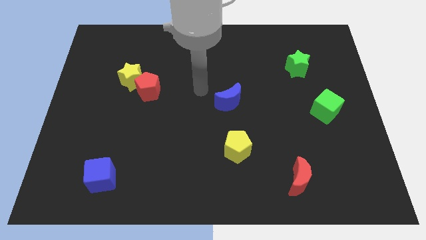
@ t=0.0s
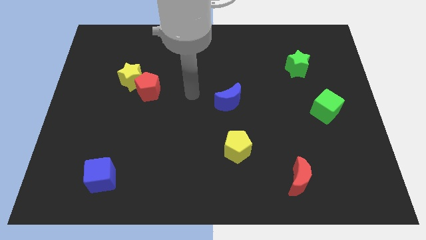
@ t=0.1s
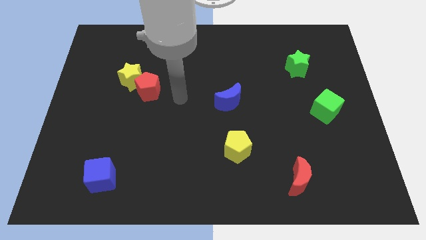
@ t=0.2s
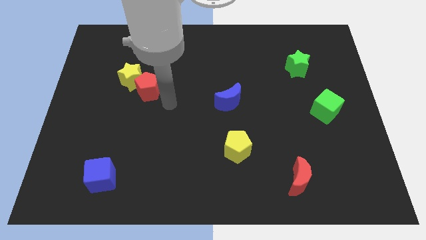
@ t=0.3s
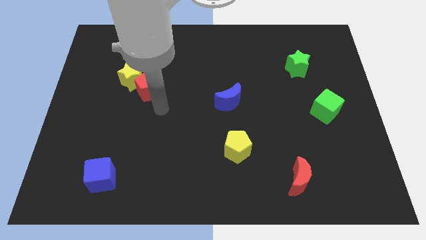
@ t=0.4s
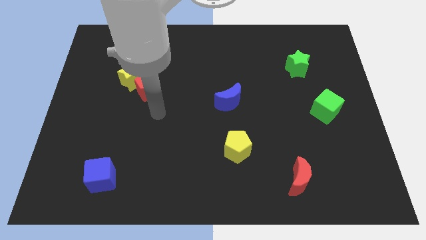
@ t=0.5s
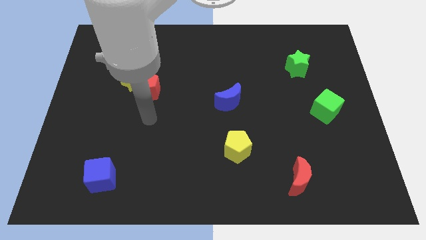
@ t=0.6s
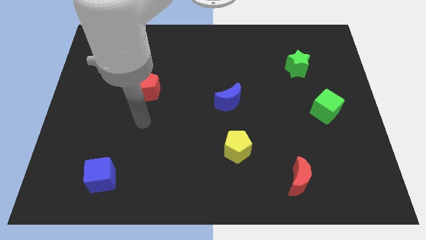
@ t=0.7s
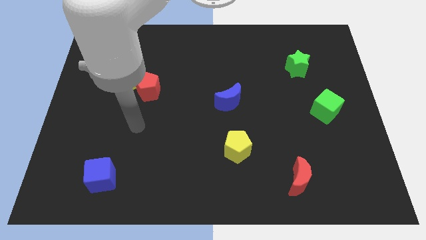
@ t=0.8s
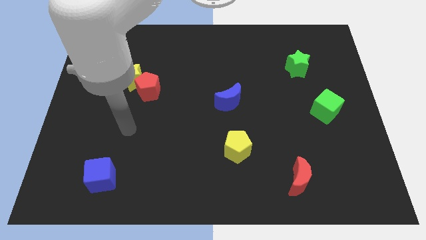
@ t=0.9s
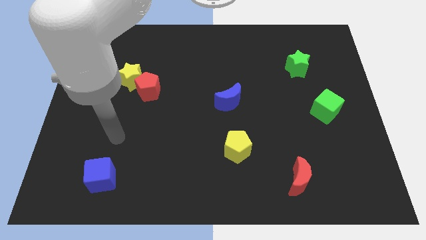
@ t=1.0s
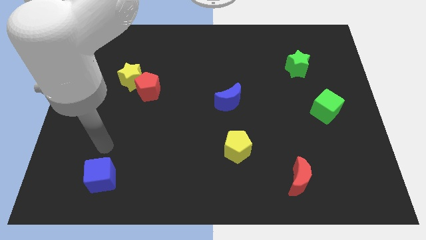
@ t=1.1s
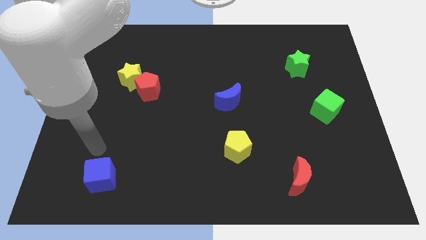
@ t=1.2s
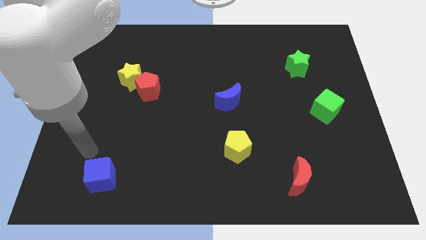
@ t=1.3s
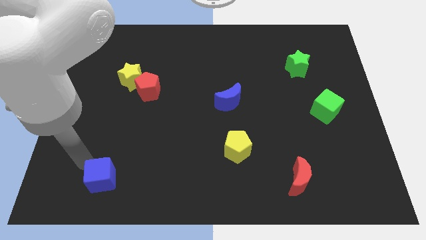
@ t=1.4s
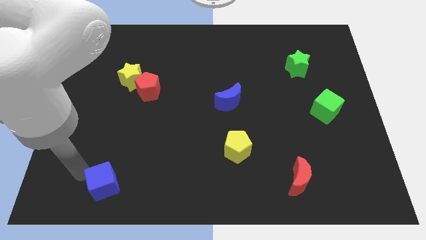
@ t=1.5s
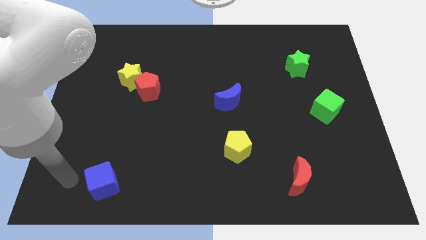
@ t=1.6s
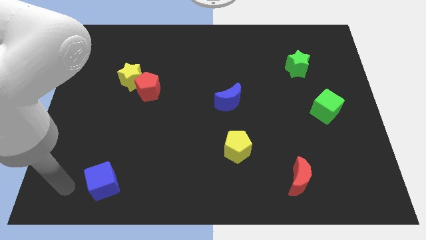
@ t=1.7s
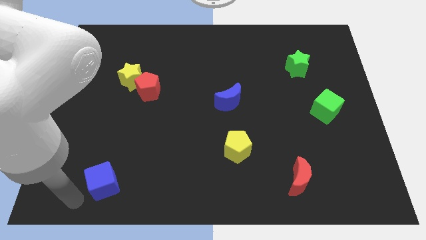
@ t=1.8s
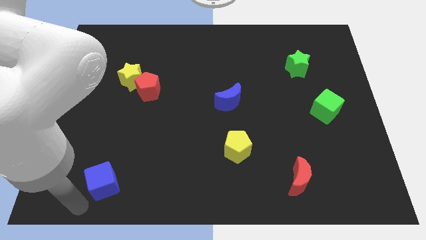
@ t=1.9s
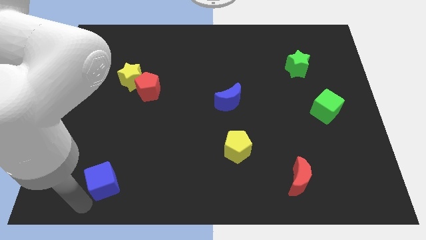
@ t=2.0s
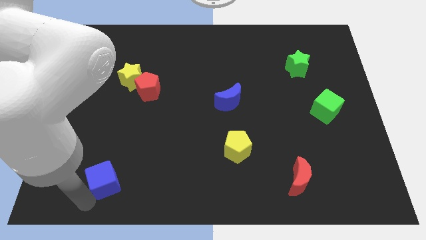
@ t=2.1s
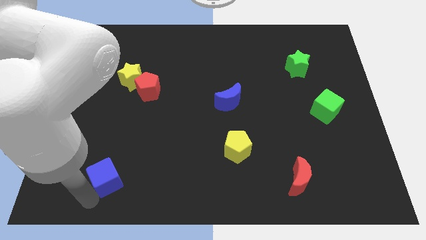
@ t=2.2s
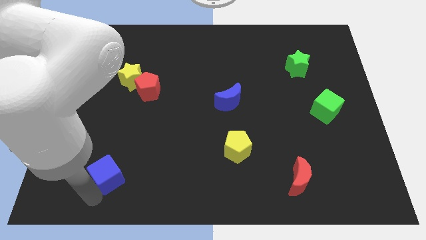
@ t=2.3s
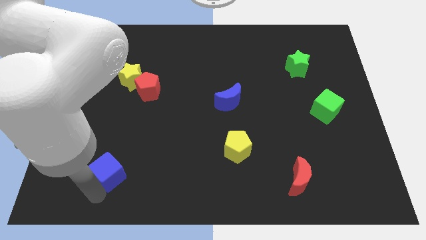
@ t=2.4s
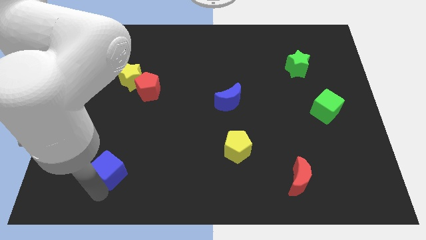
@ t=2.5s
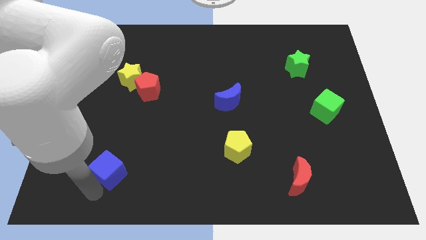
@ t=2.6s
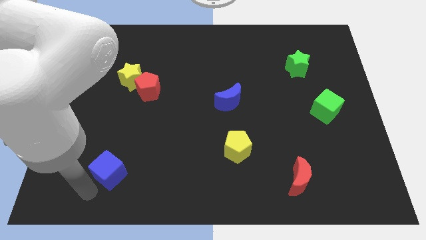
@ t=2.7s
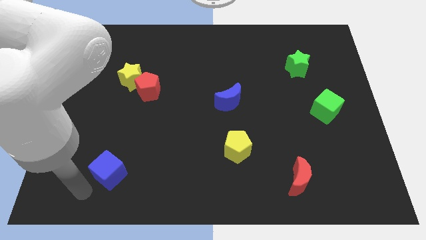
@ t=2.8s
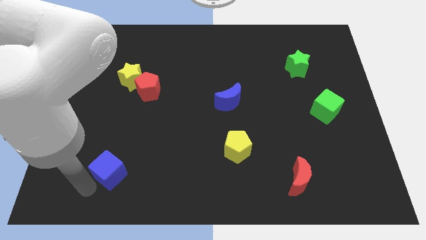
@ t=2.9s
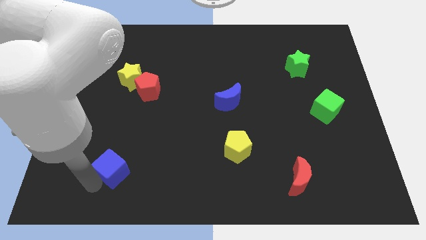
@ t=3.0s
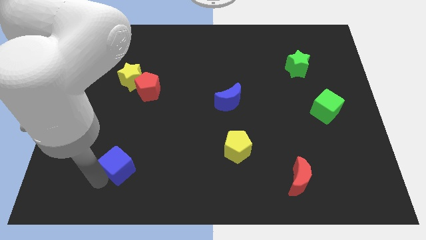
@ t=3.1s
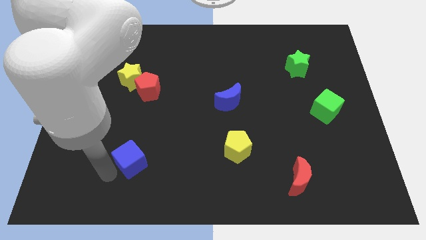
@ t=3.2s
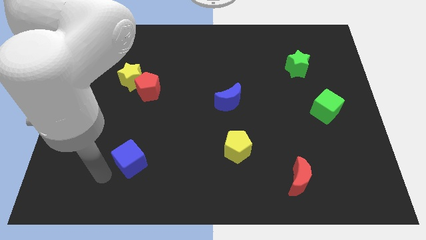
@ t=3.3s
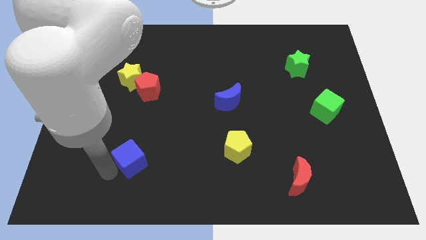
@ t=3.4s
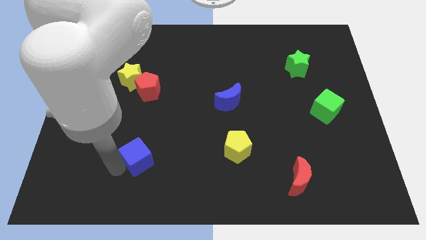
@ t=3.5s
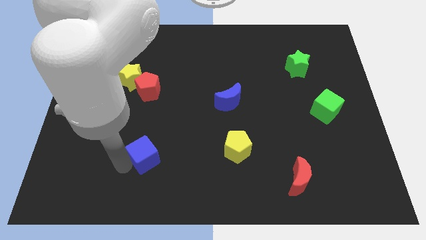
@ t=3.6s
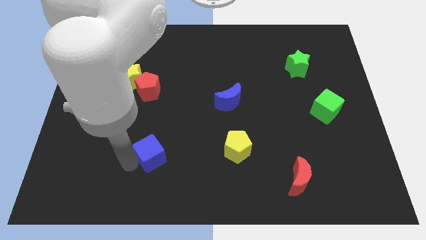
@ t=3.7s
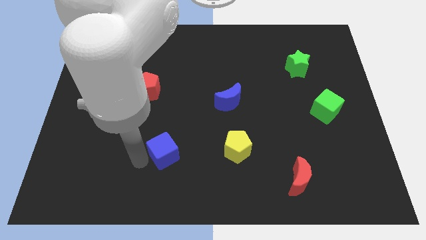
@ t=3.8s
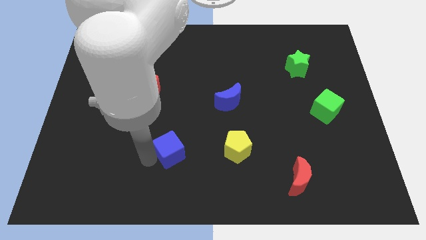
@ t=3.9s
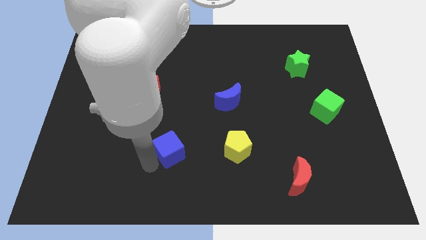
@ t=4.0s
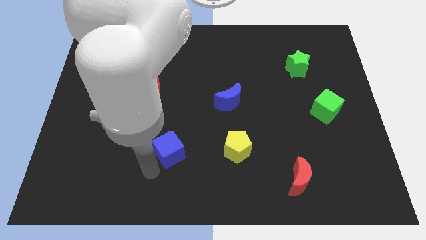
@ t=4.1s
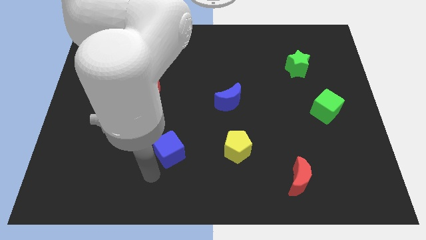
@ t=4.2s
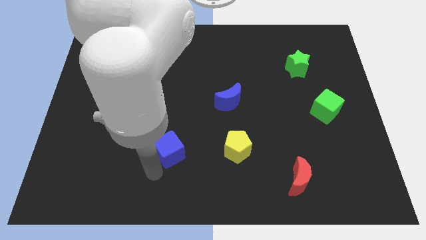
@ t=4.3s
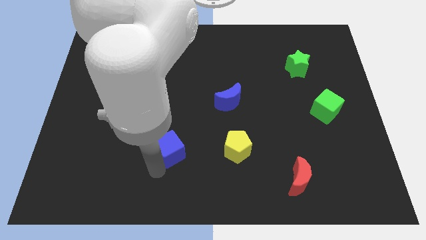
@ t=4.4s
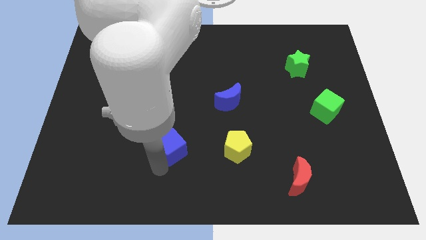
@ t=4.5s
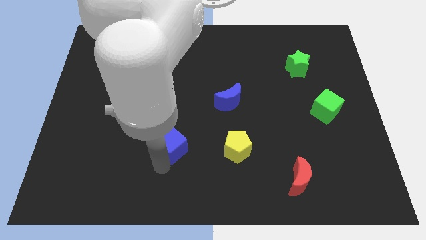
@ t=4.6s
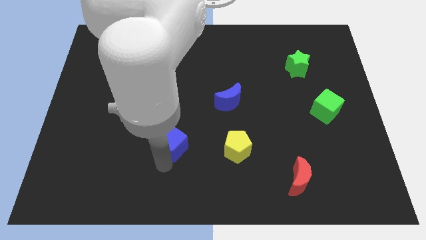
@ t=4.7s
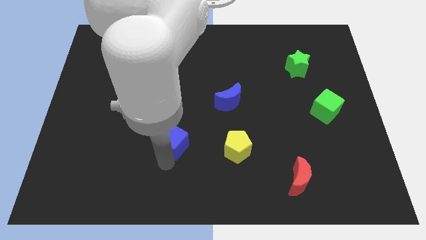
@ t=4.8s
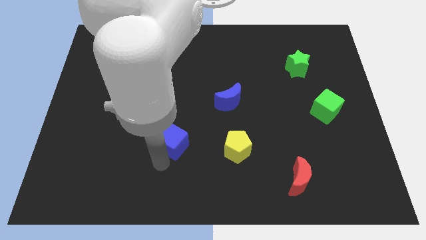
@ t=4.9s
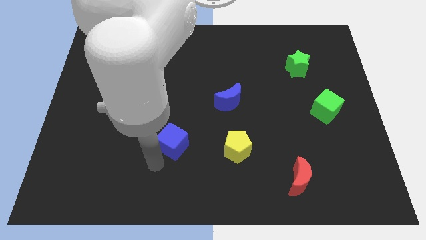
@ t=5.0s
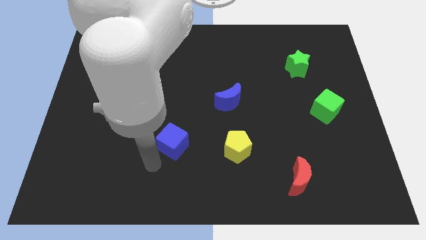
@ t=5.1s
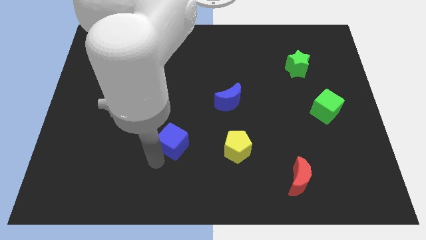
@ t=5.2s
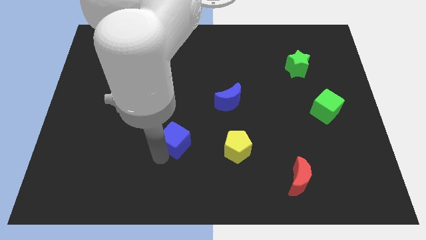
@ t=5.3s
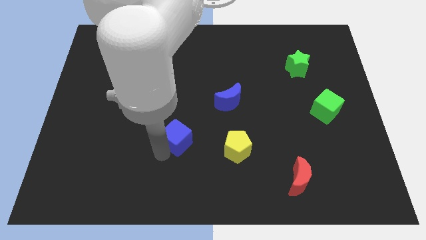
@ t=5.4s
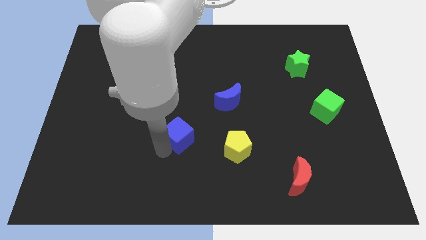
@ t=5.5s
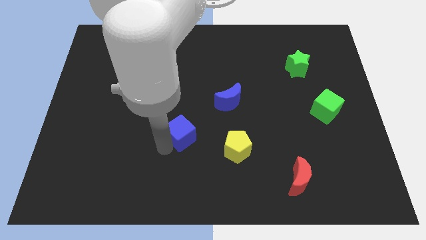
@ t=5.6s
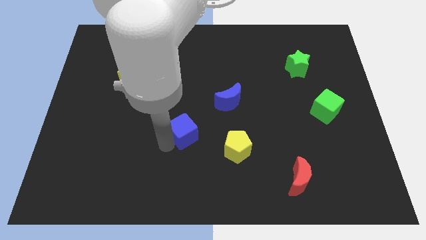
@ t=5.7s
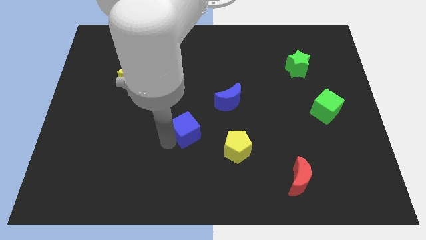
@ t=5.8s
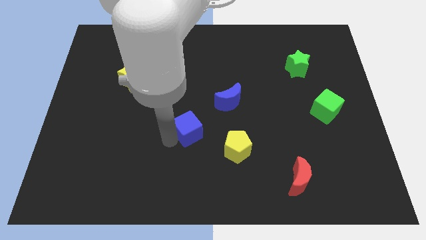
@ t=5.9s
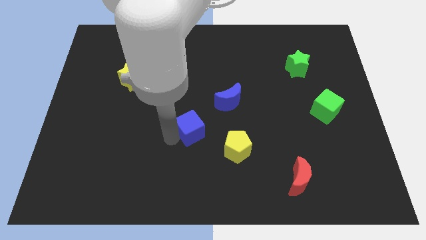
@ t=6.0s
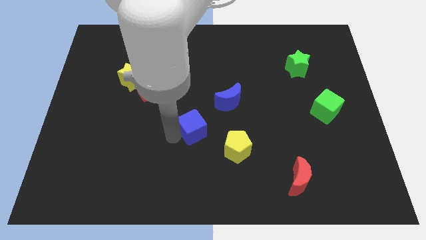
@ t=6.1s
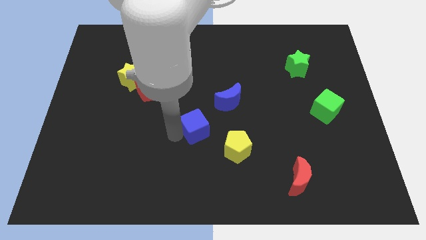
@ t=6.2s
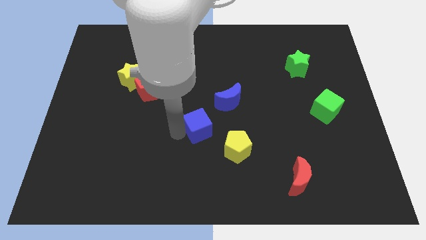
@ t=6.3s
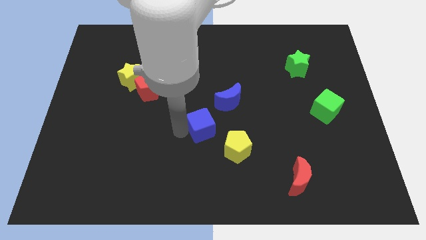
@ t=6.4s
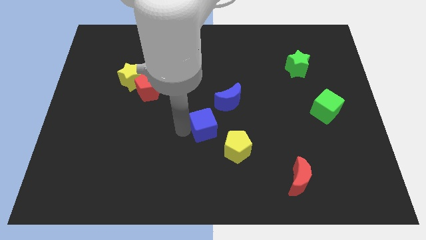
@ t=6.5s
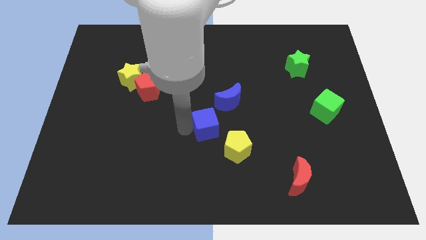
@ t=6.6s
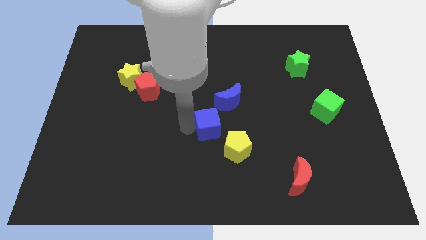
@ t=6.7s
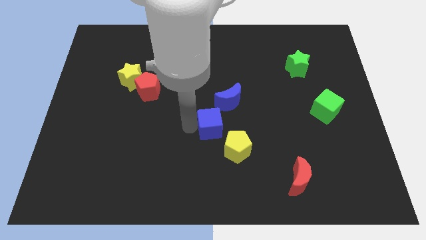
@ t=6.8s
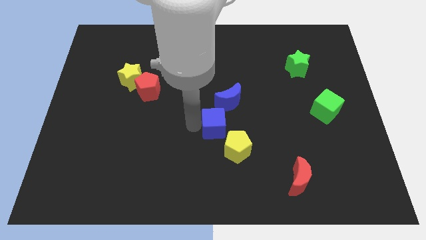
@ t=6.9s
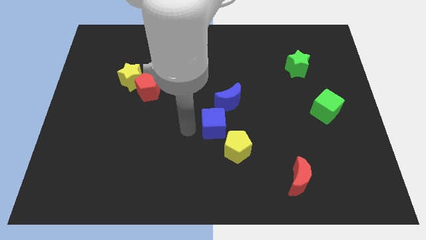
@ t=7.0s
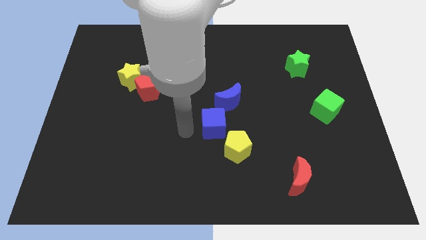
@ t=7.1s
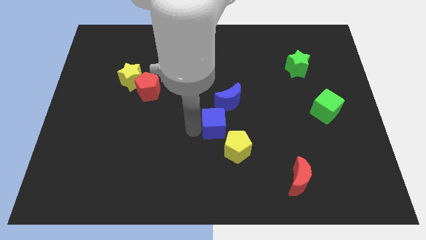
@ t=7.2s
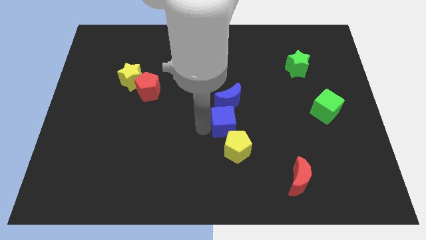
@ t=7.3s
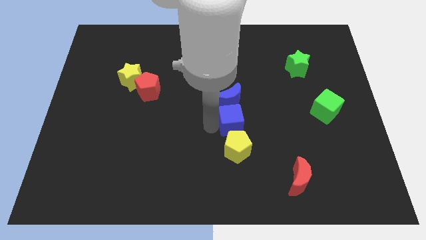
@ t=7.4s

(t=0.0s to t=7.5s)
slide the blue cube diagonally down and to the right of the blue moon
